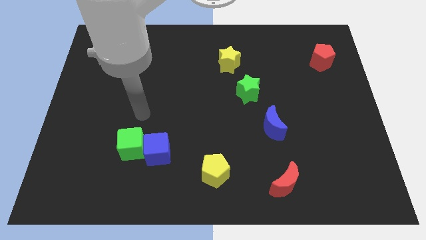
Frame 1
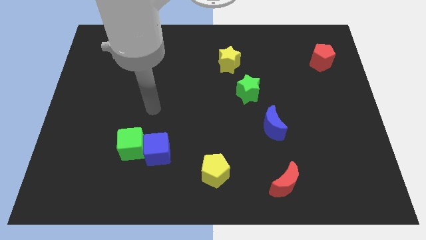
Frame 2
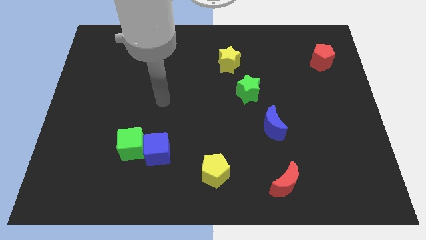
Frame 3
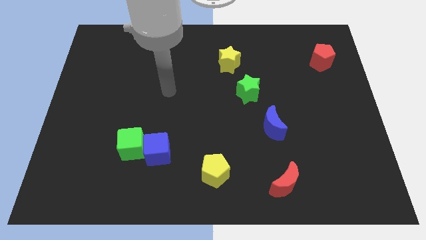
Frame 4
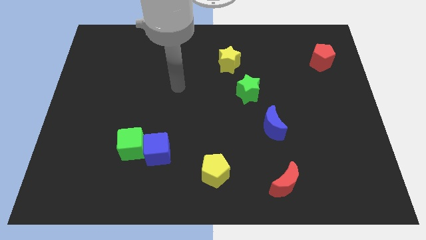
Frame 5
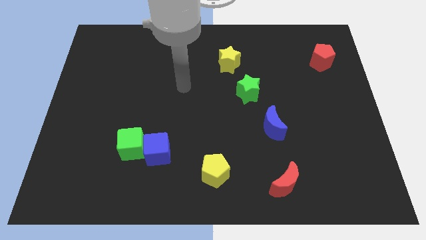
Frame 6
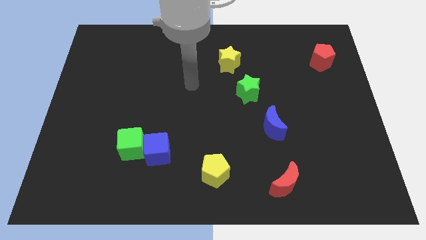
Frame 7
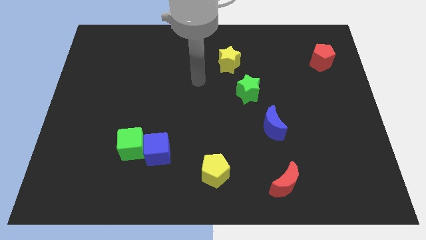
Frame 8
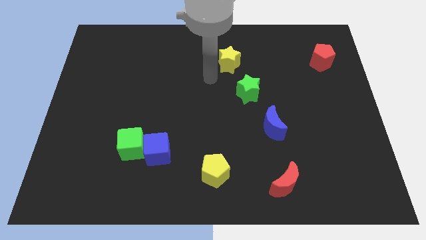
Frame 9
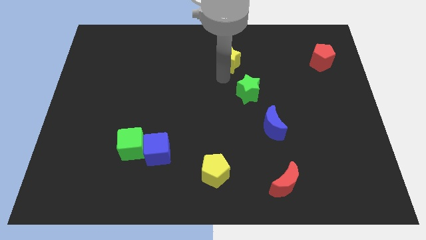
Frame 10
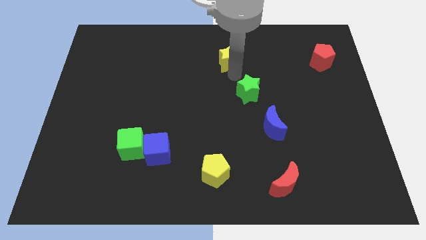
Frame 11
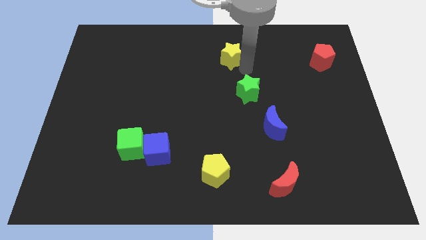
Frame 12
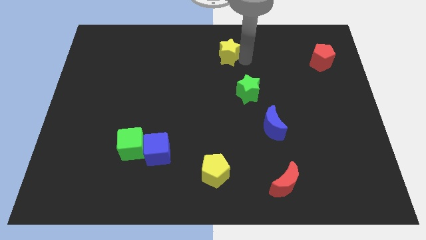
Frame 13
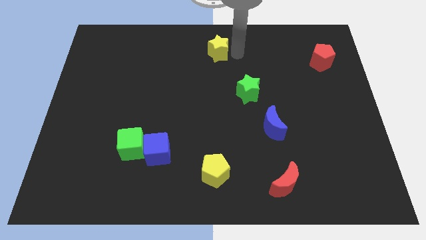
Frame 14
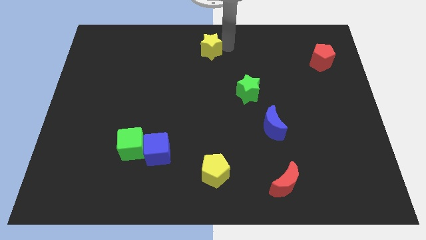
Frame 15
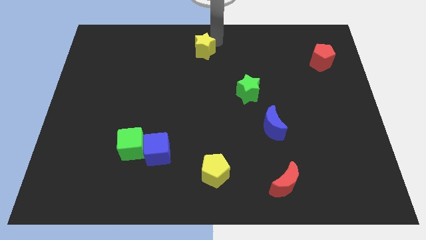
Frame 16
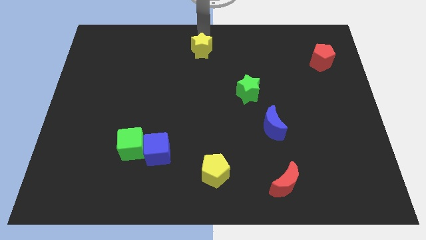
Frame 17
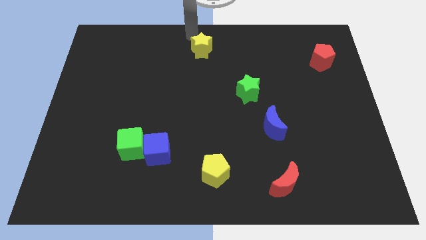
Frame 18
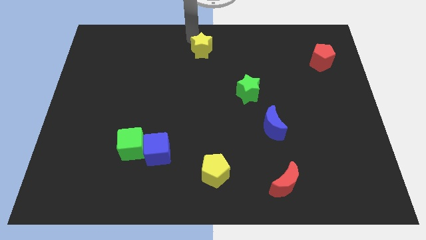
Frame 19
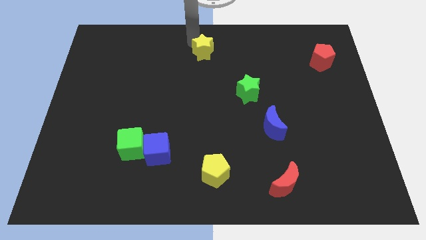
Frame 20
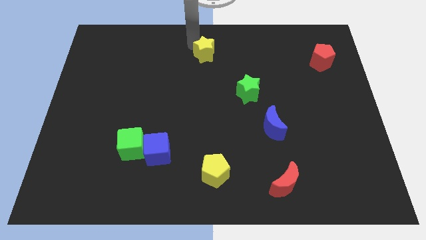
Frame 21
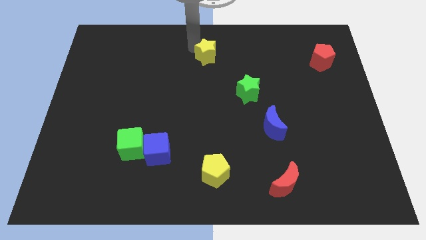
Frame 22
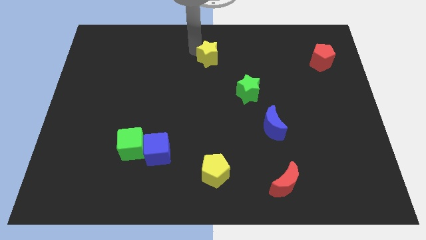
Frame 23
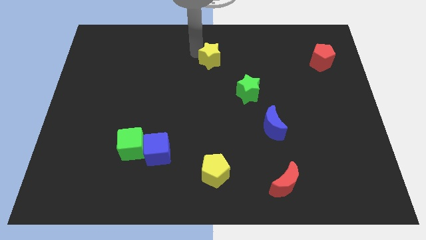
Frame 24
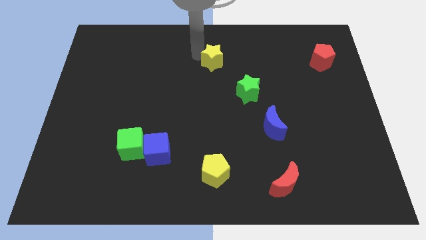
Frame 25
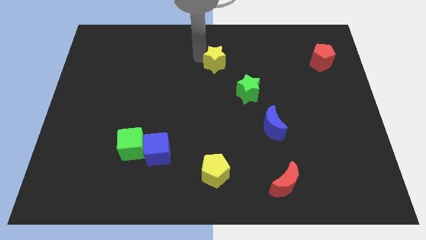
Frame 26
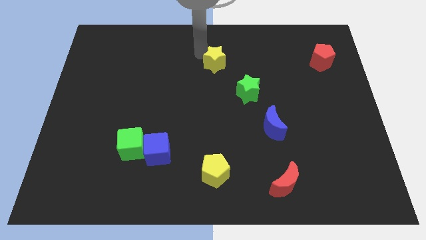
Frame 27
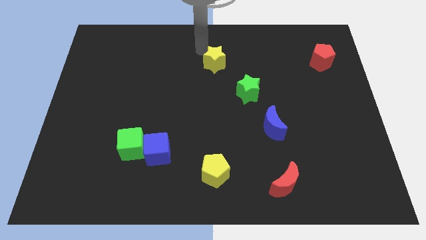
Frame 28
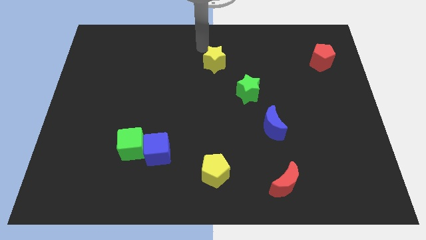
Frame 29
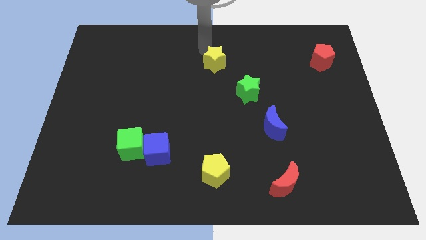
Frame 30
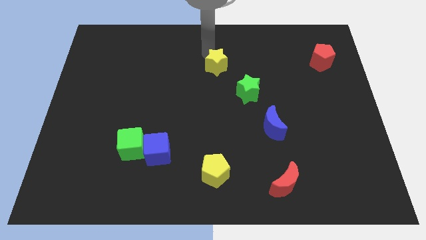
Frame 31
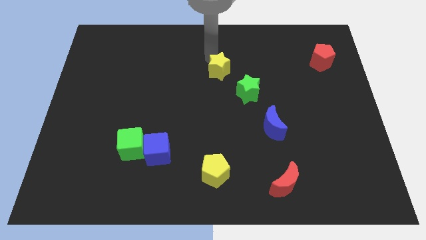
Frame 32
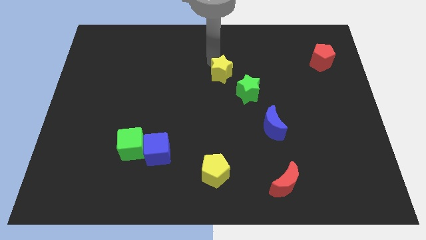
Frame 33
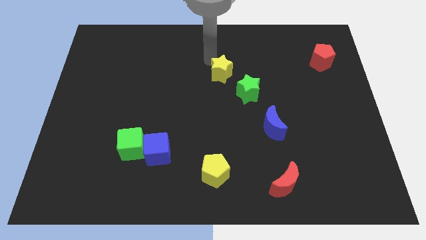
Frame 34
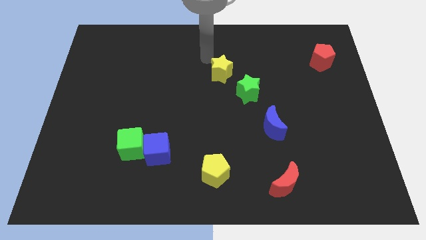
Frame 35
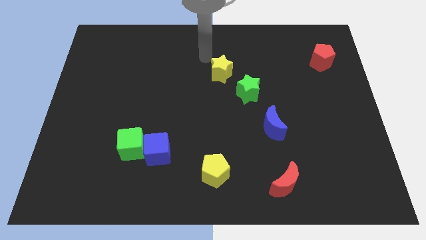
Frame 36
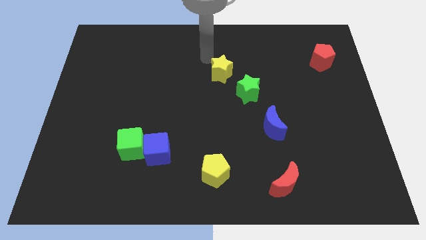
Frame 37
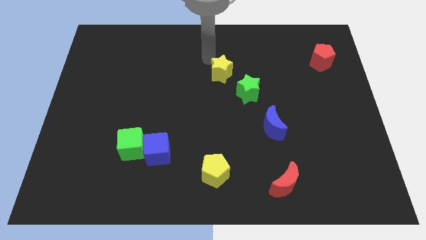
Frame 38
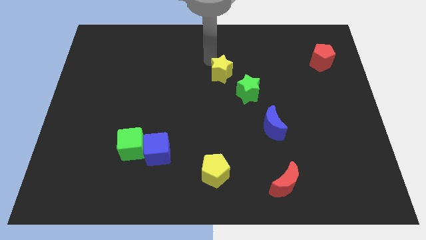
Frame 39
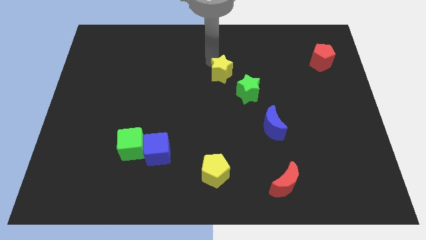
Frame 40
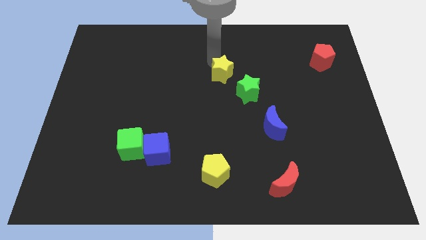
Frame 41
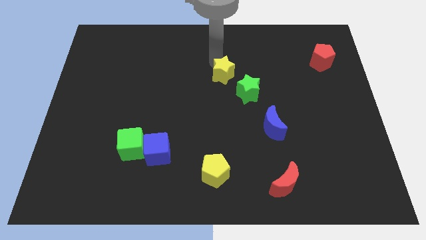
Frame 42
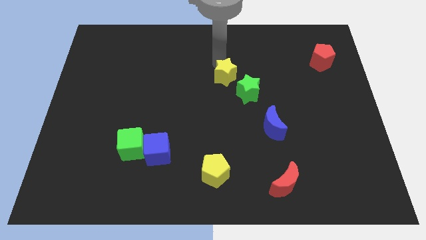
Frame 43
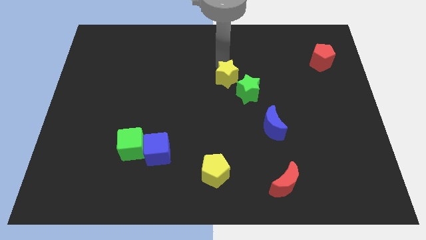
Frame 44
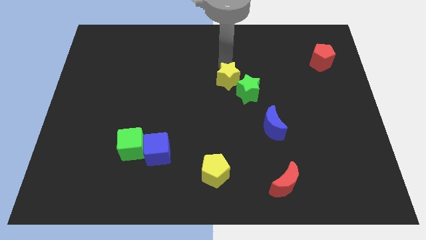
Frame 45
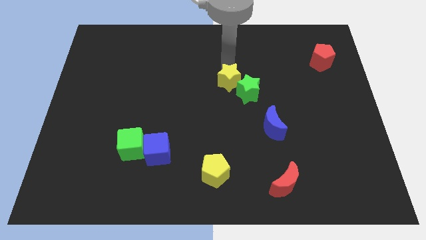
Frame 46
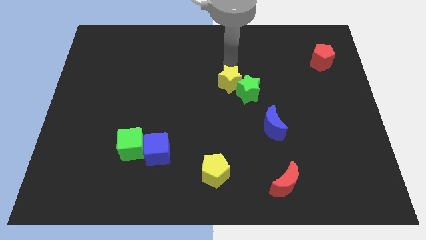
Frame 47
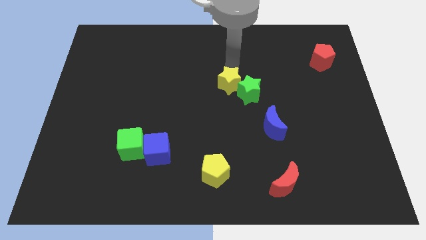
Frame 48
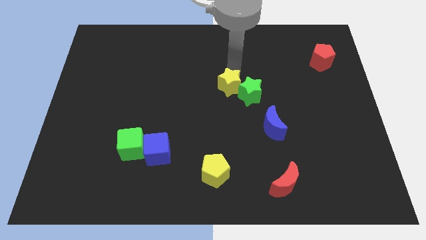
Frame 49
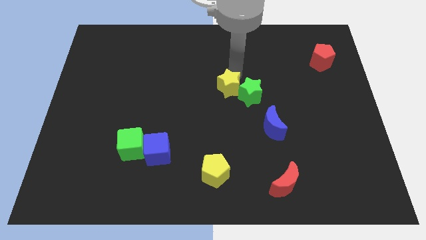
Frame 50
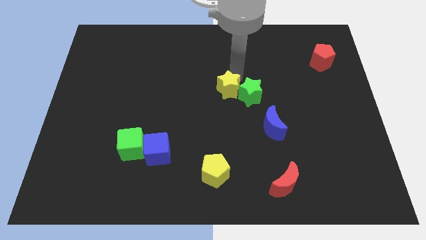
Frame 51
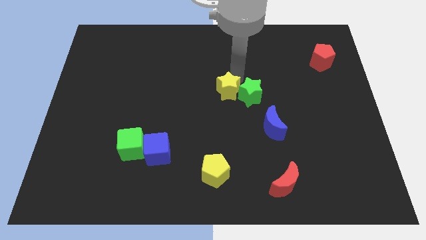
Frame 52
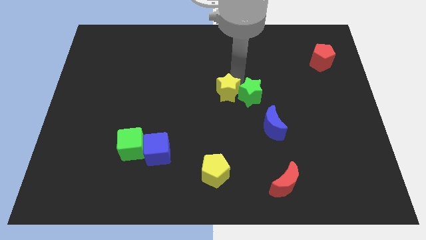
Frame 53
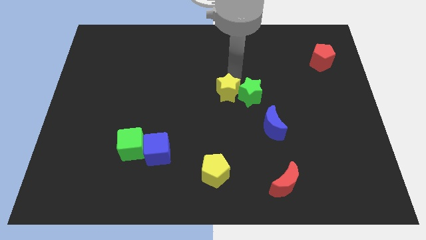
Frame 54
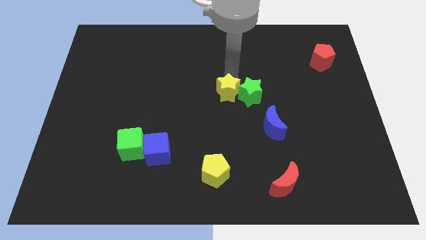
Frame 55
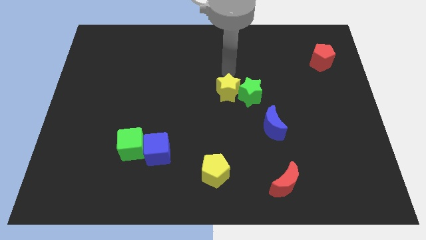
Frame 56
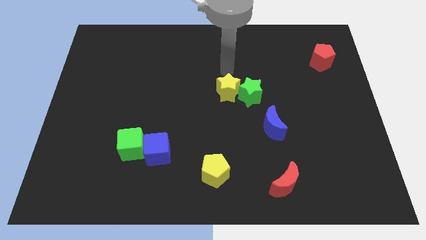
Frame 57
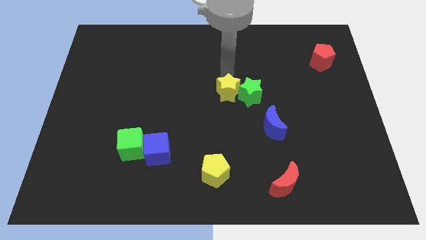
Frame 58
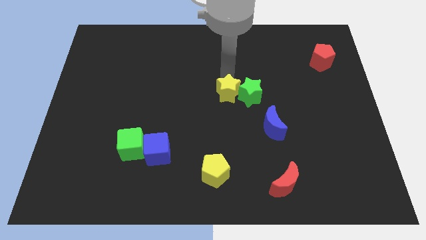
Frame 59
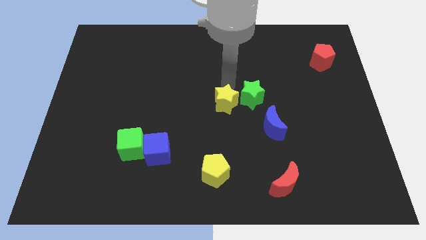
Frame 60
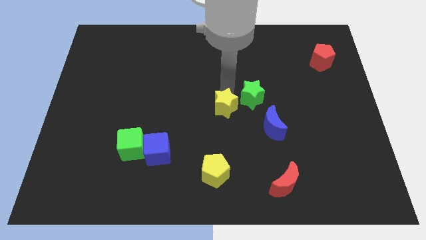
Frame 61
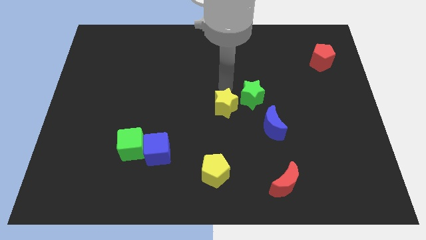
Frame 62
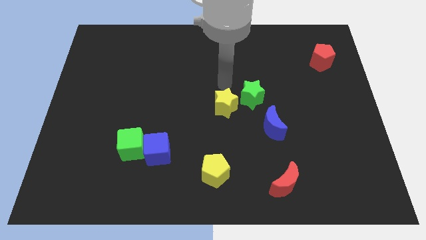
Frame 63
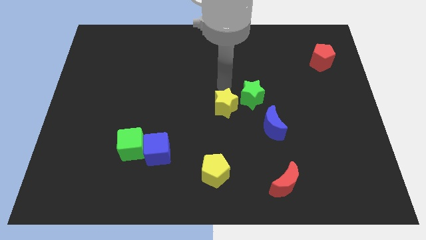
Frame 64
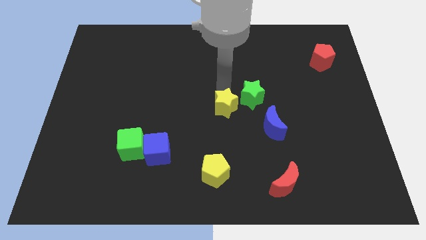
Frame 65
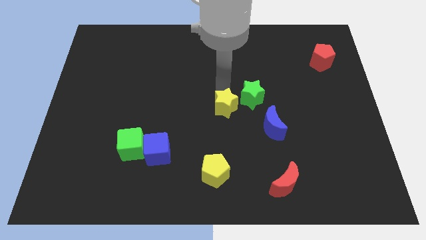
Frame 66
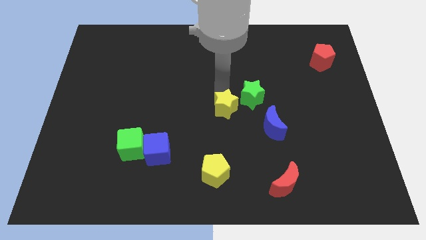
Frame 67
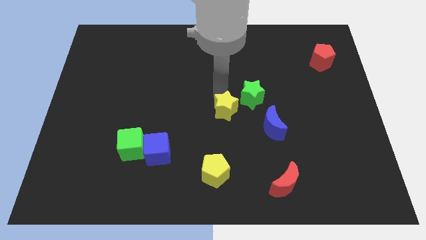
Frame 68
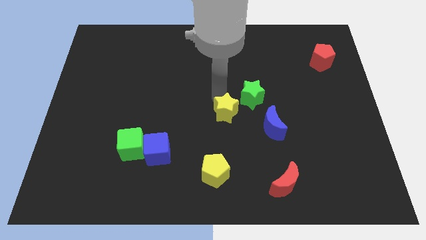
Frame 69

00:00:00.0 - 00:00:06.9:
put the yellow star to the left of the blue moon

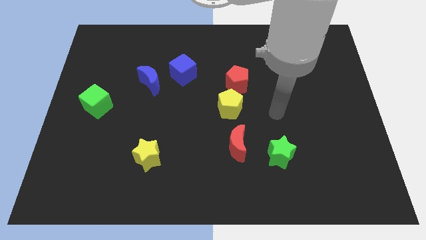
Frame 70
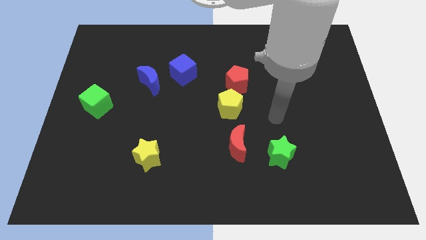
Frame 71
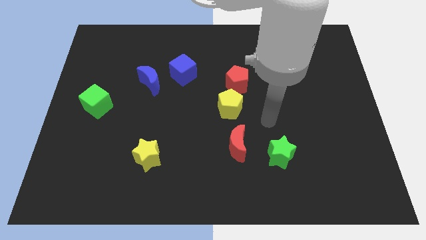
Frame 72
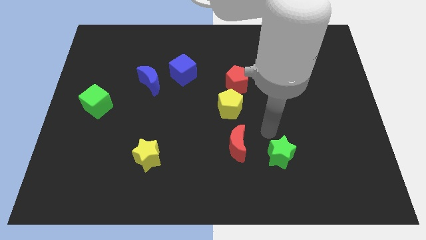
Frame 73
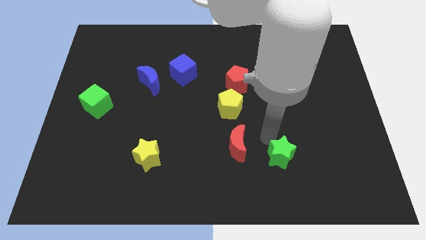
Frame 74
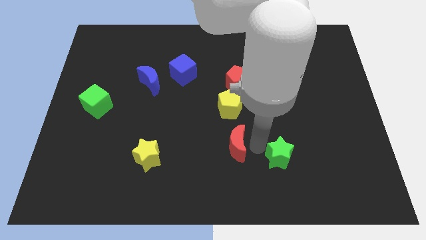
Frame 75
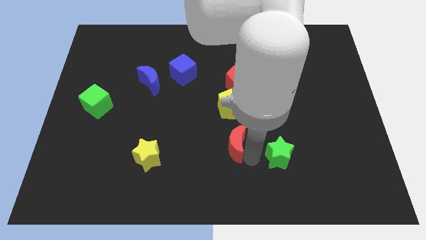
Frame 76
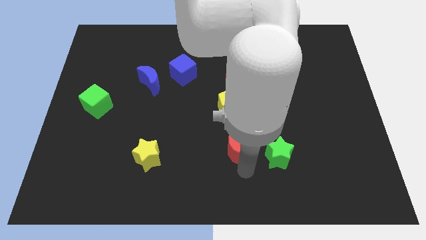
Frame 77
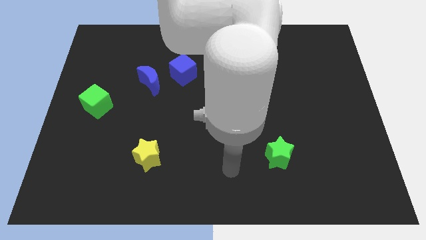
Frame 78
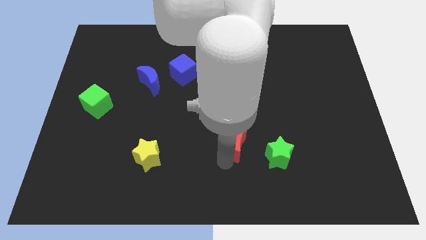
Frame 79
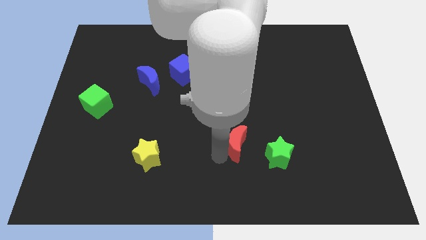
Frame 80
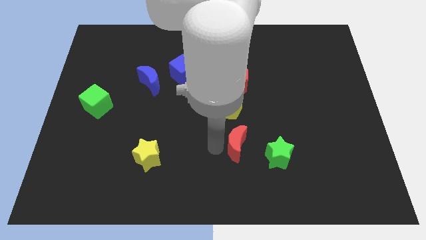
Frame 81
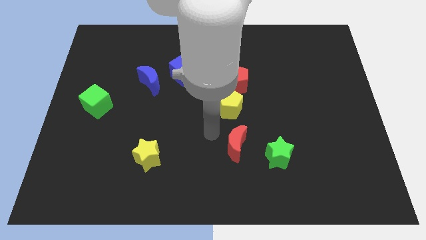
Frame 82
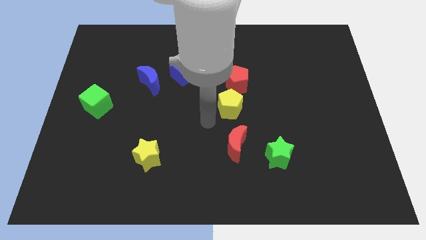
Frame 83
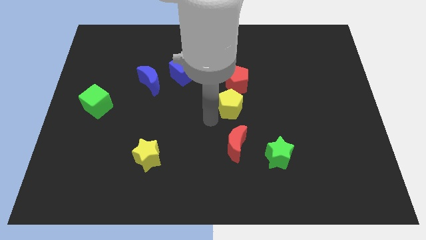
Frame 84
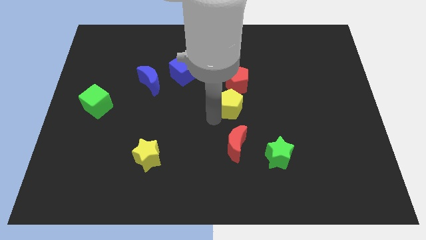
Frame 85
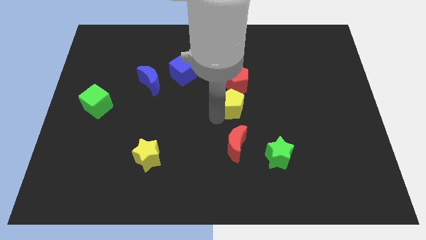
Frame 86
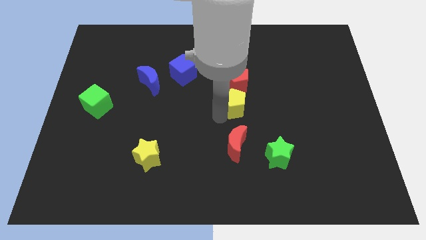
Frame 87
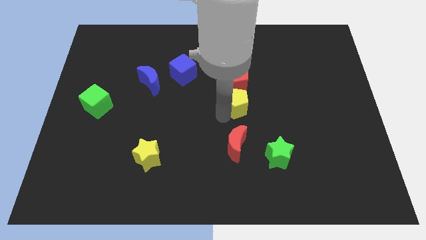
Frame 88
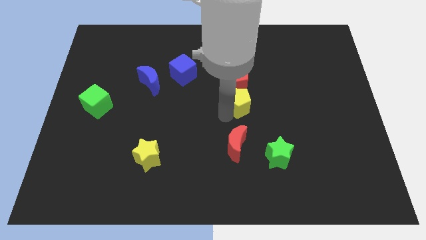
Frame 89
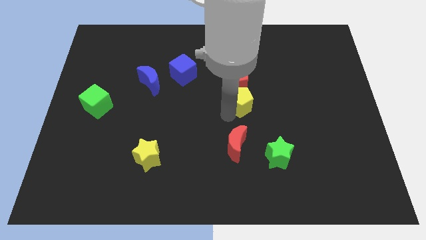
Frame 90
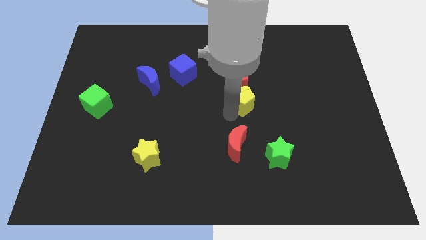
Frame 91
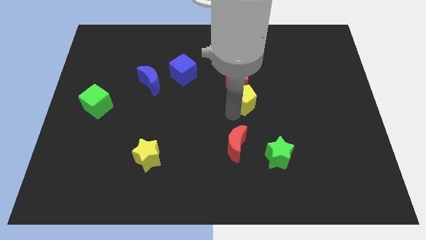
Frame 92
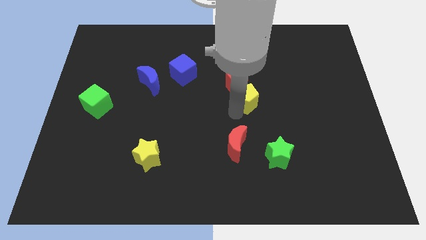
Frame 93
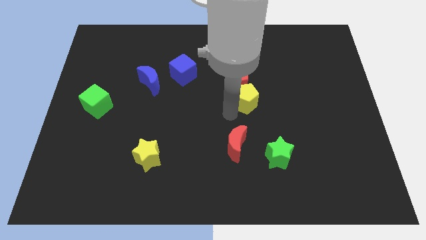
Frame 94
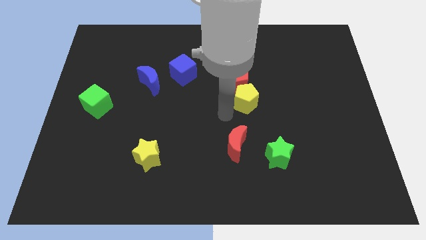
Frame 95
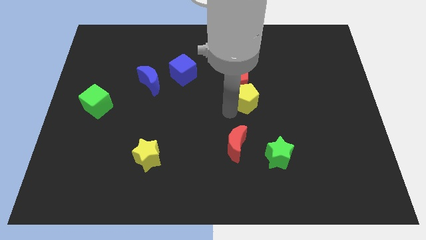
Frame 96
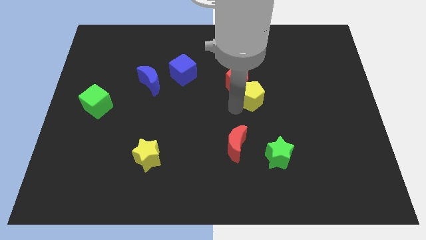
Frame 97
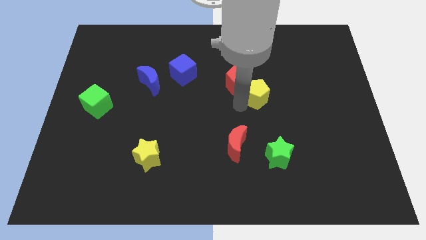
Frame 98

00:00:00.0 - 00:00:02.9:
slide the yellow pentagon right of the red pentagon
